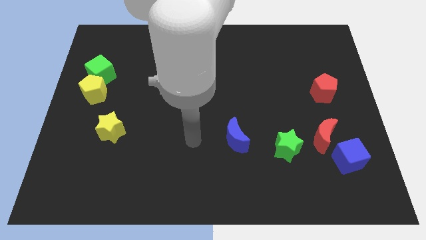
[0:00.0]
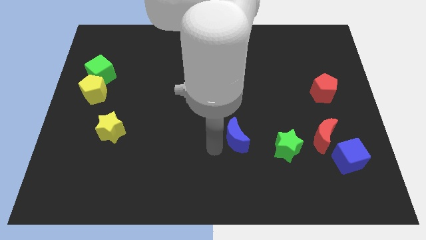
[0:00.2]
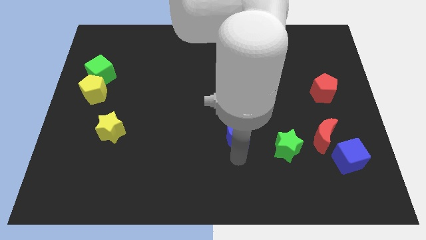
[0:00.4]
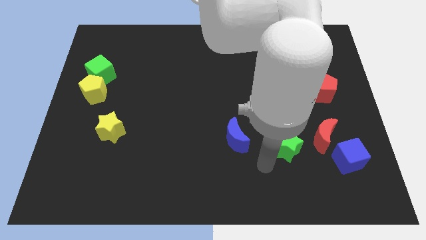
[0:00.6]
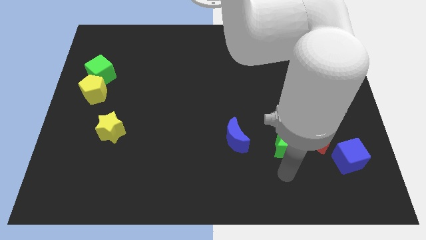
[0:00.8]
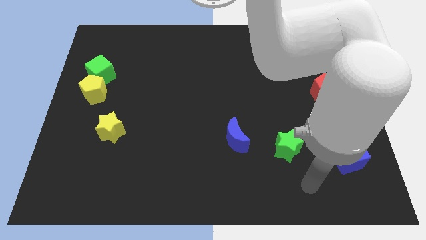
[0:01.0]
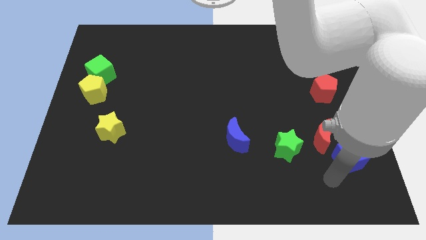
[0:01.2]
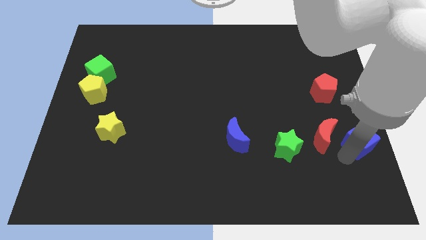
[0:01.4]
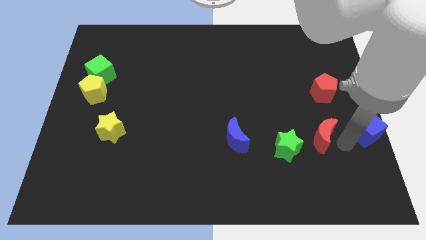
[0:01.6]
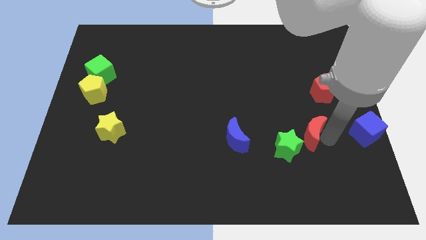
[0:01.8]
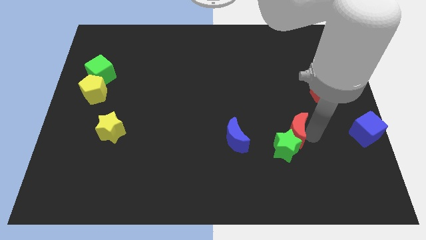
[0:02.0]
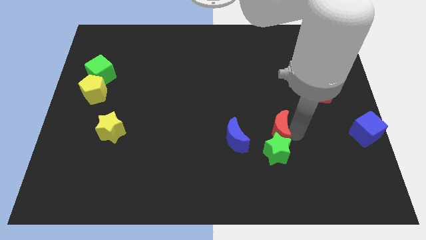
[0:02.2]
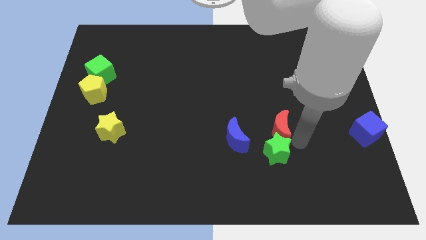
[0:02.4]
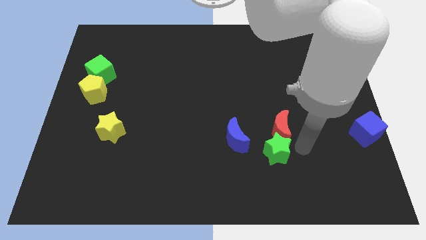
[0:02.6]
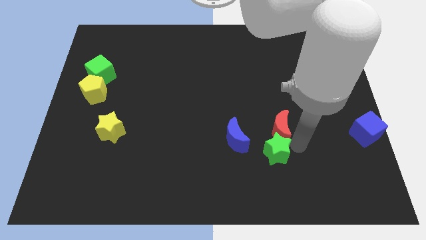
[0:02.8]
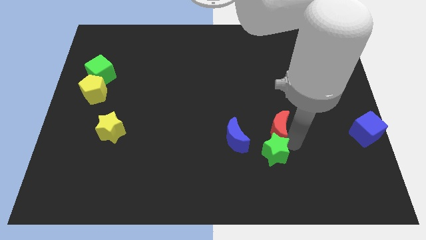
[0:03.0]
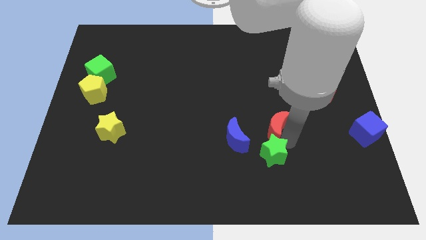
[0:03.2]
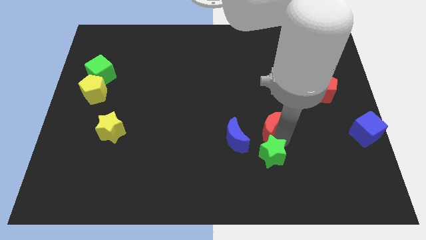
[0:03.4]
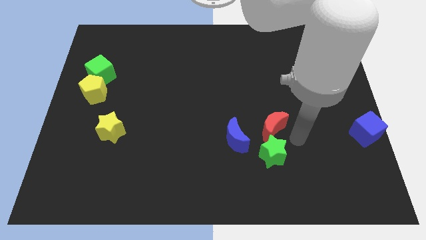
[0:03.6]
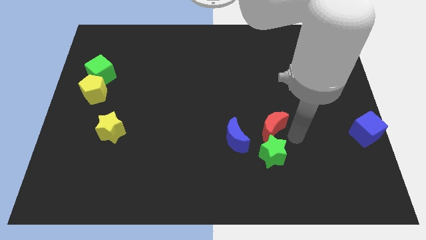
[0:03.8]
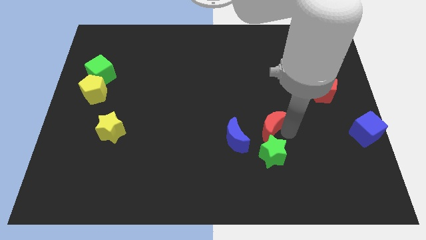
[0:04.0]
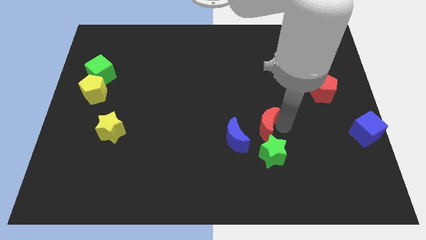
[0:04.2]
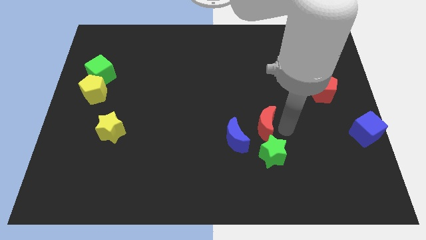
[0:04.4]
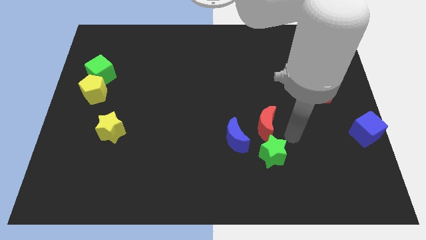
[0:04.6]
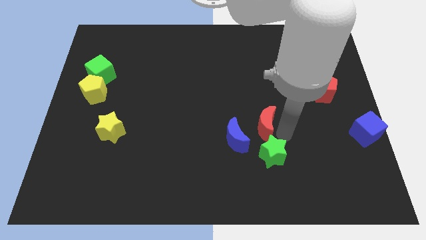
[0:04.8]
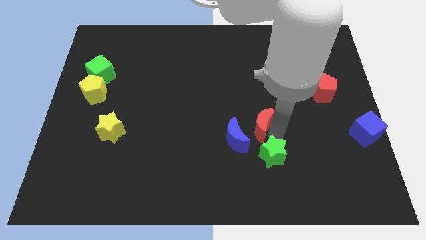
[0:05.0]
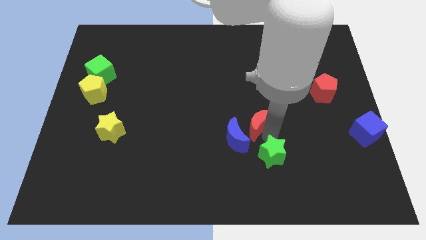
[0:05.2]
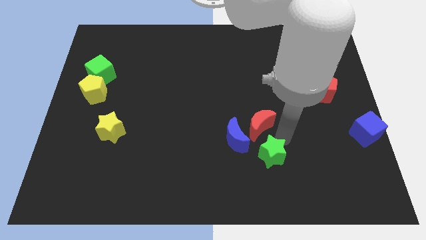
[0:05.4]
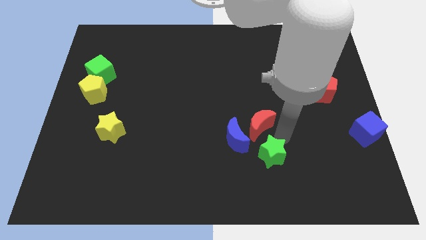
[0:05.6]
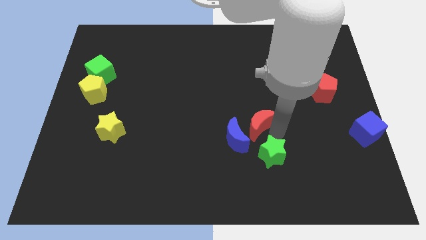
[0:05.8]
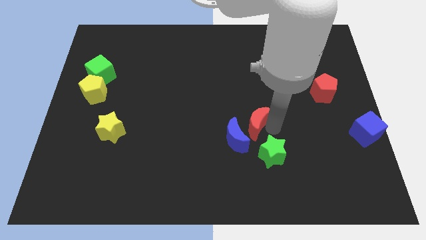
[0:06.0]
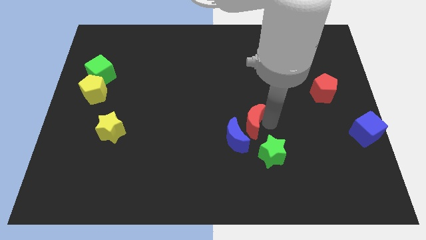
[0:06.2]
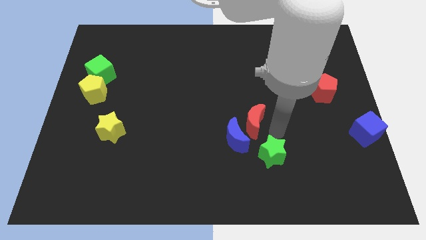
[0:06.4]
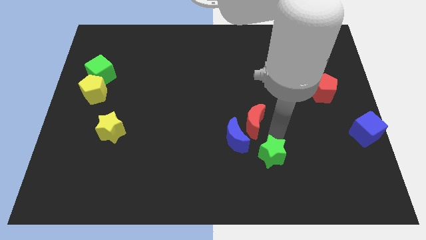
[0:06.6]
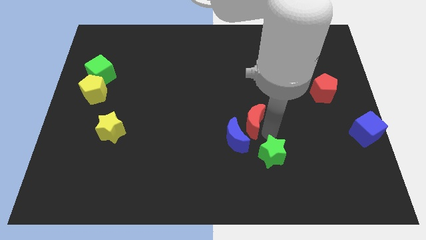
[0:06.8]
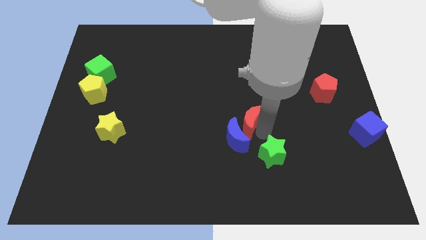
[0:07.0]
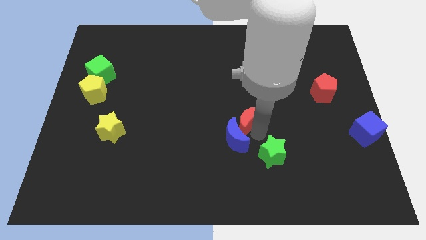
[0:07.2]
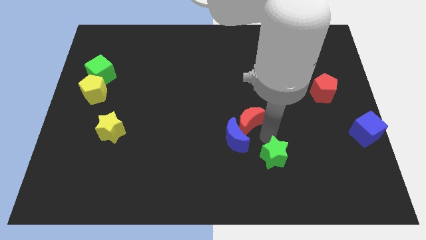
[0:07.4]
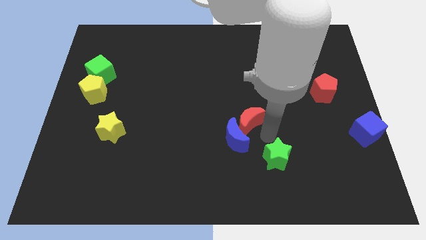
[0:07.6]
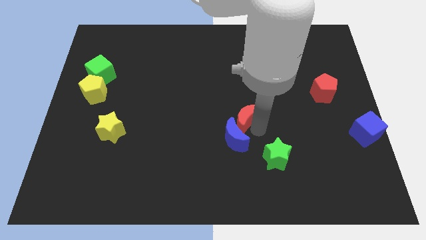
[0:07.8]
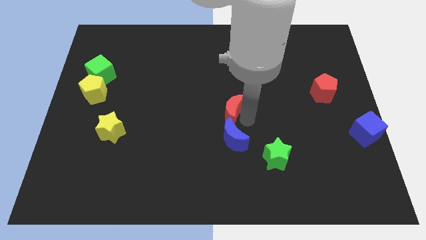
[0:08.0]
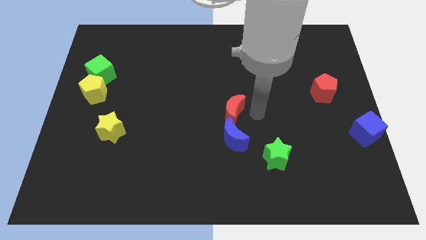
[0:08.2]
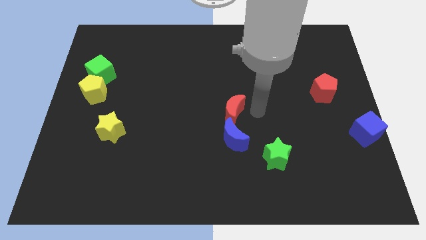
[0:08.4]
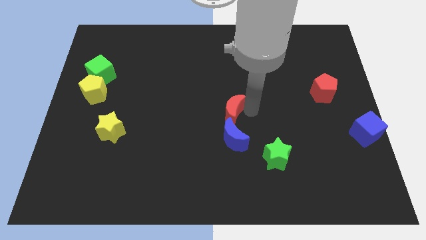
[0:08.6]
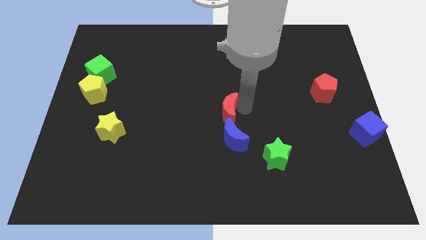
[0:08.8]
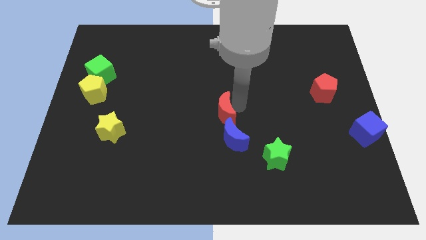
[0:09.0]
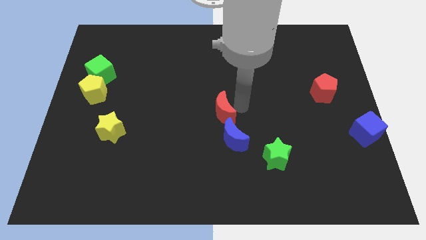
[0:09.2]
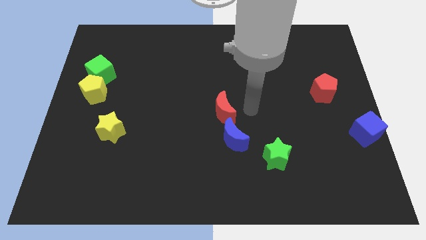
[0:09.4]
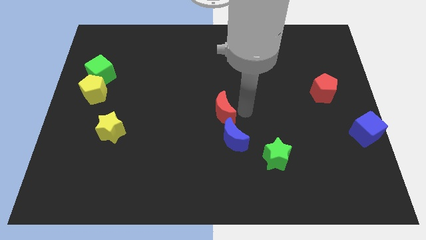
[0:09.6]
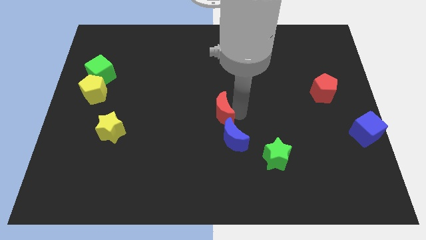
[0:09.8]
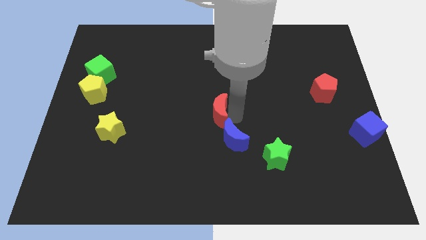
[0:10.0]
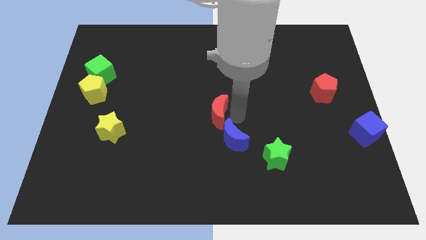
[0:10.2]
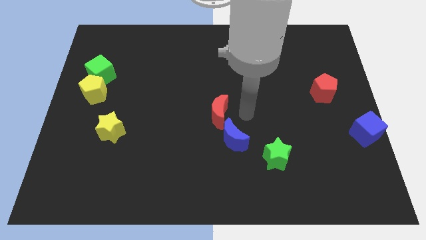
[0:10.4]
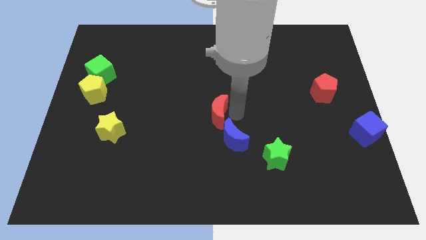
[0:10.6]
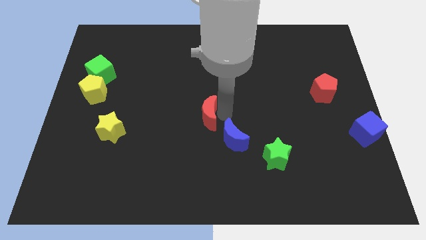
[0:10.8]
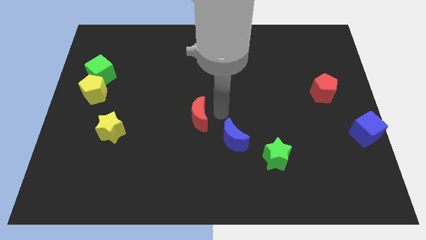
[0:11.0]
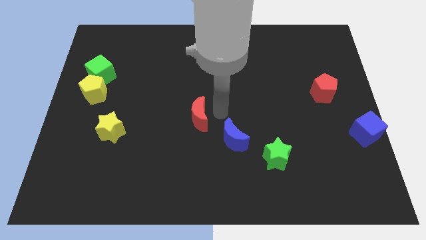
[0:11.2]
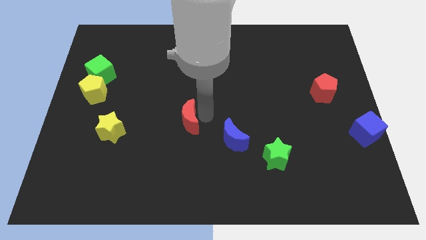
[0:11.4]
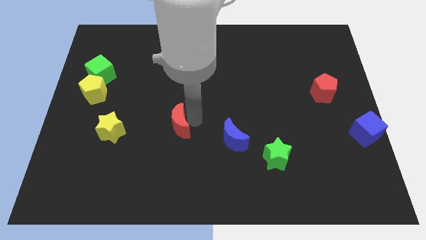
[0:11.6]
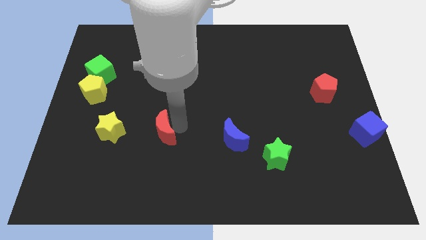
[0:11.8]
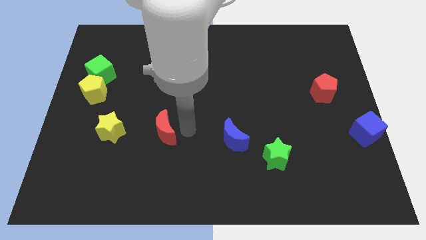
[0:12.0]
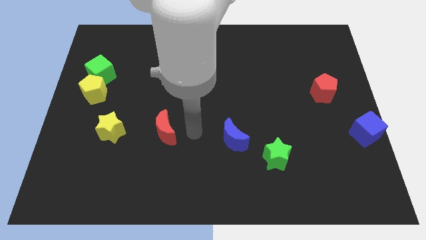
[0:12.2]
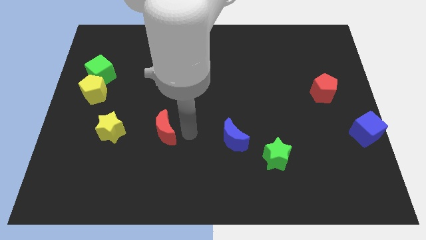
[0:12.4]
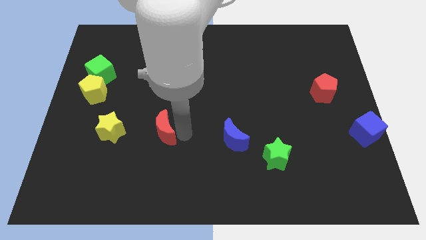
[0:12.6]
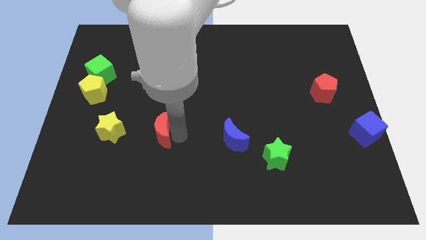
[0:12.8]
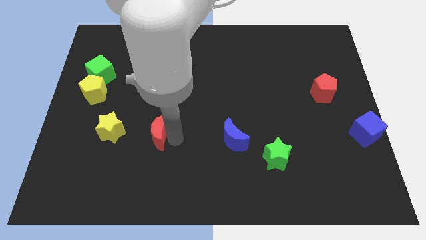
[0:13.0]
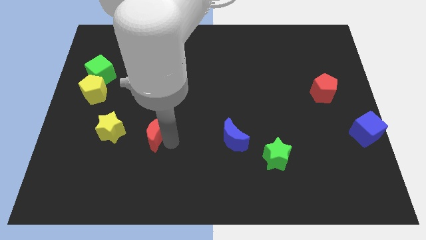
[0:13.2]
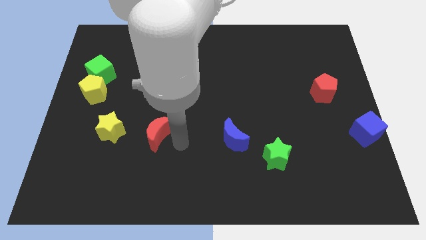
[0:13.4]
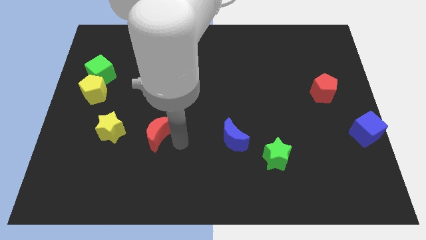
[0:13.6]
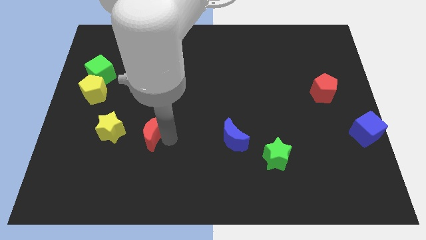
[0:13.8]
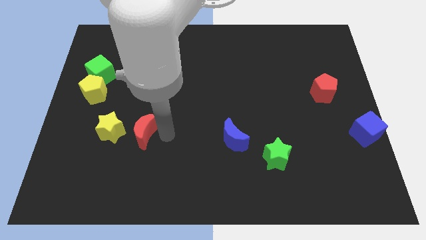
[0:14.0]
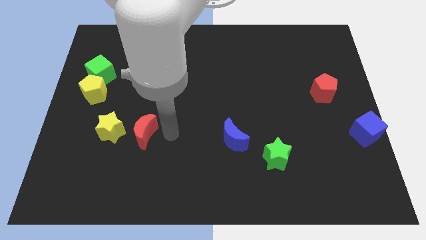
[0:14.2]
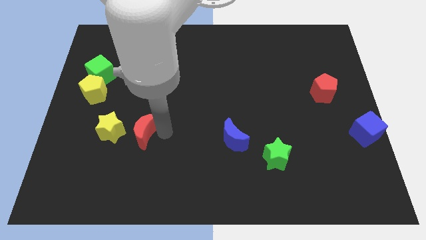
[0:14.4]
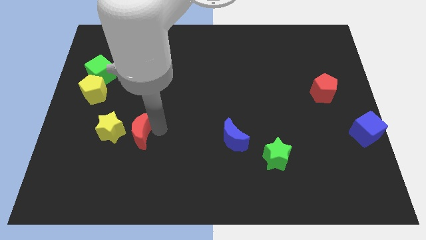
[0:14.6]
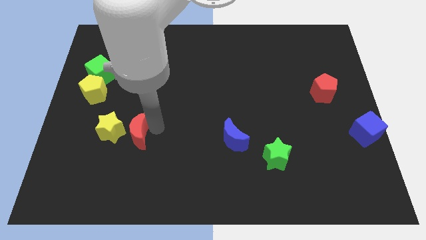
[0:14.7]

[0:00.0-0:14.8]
push the red moon to the yellow star
